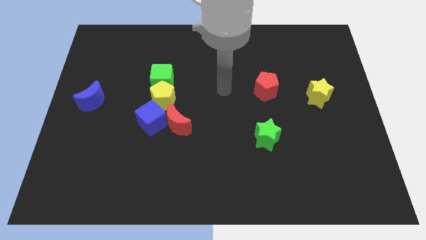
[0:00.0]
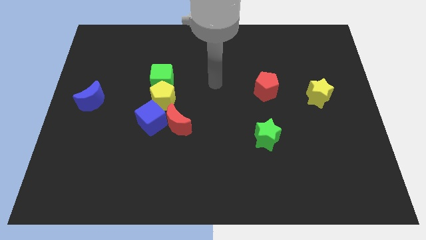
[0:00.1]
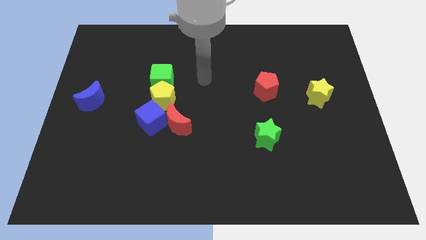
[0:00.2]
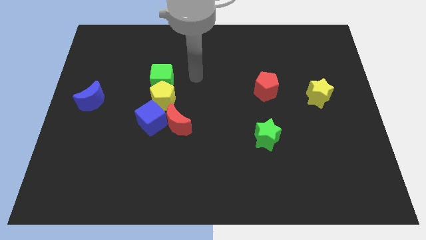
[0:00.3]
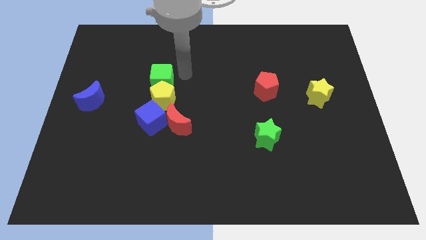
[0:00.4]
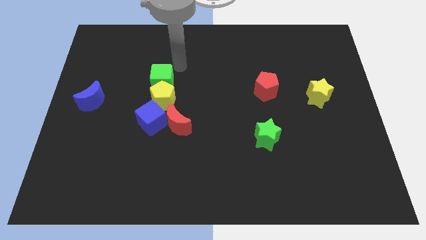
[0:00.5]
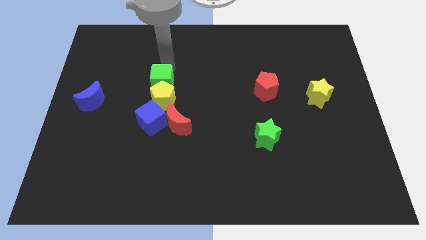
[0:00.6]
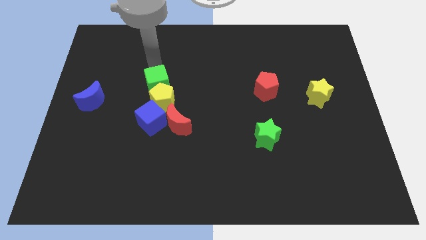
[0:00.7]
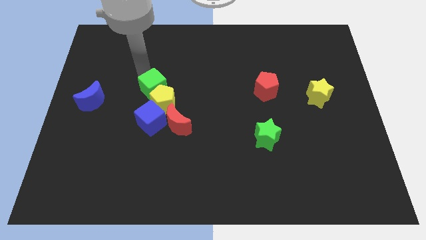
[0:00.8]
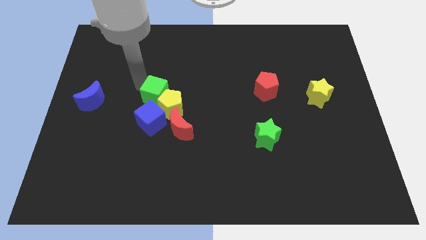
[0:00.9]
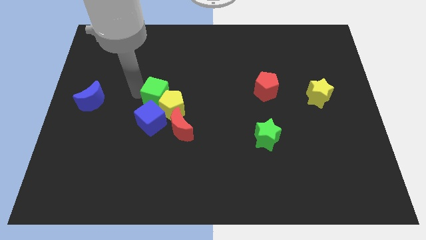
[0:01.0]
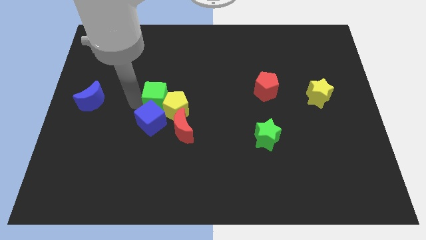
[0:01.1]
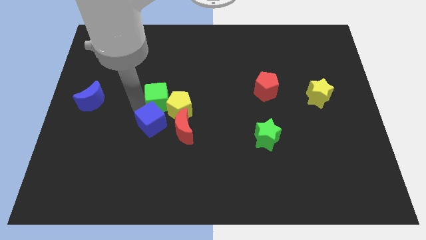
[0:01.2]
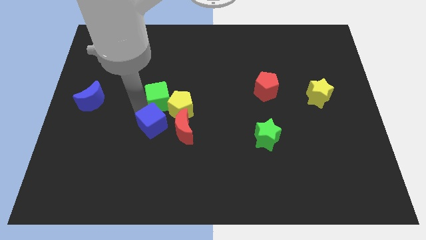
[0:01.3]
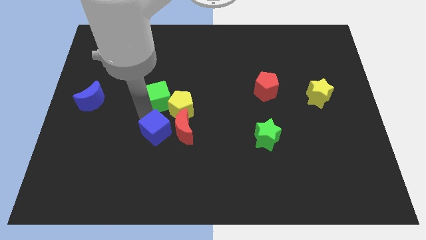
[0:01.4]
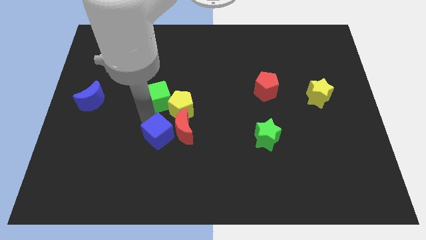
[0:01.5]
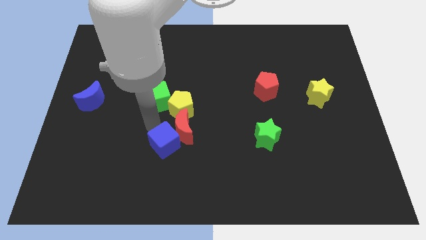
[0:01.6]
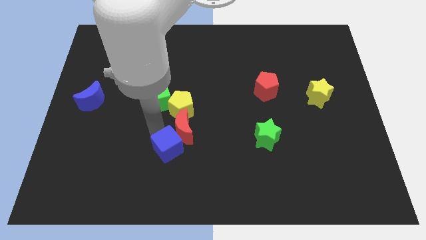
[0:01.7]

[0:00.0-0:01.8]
slightly slide the blue cube down and to the right diagonally

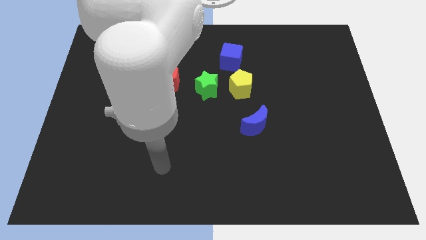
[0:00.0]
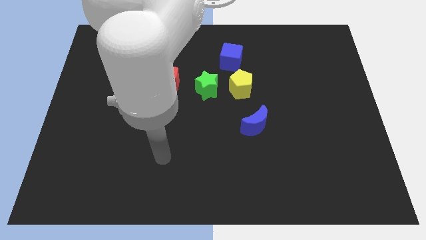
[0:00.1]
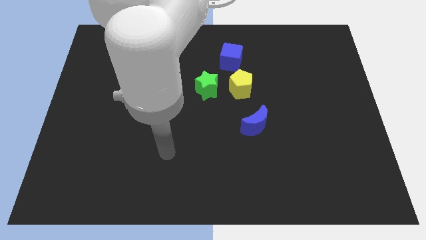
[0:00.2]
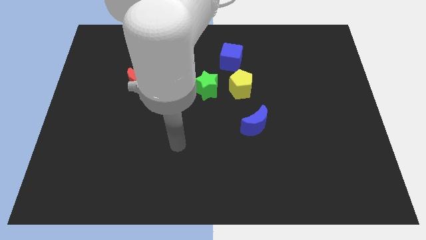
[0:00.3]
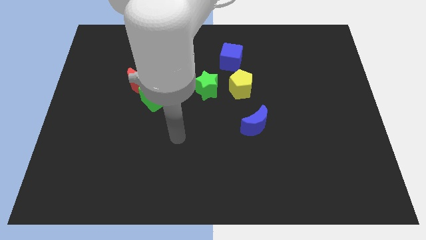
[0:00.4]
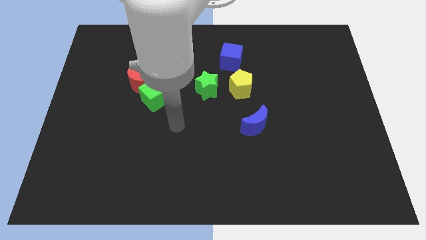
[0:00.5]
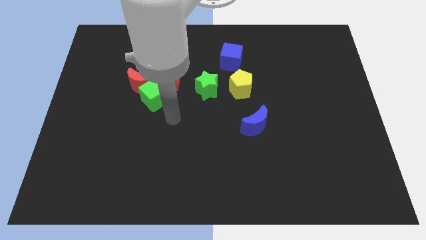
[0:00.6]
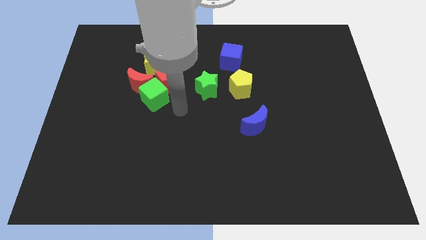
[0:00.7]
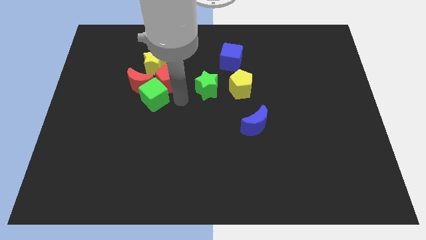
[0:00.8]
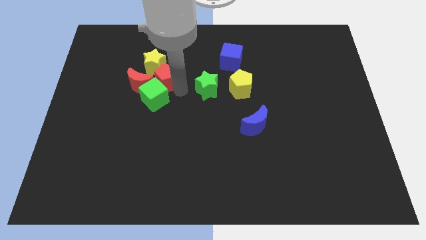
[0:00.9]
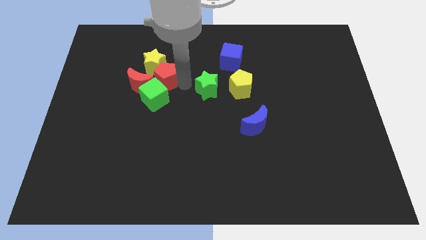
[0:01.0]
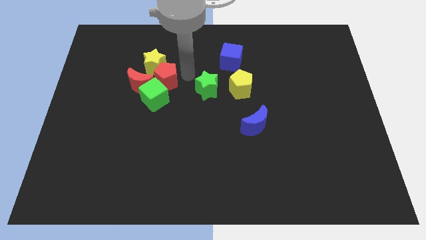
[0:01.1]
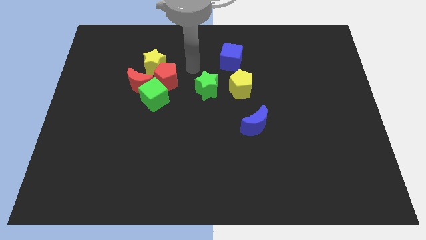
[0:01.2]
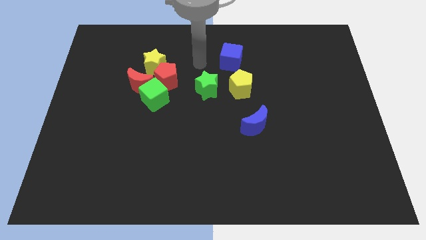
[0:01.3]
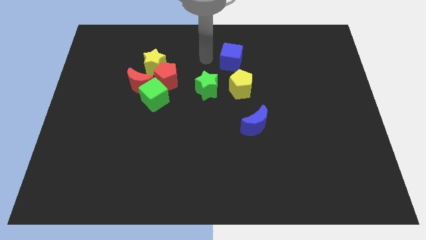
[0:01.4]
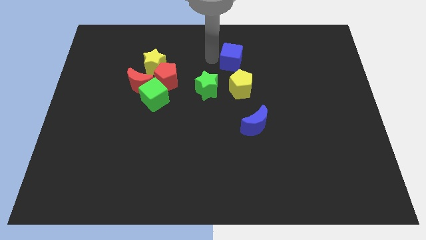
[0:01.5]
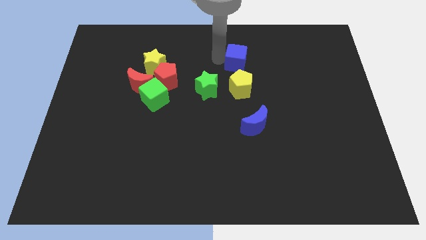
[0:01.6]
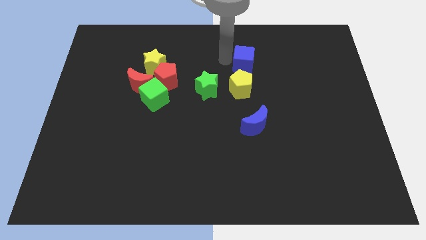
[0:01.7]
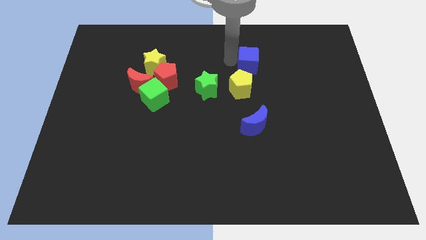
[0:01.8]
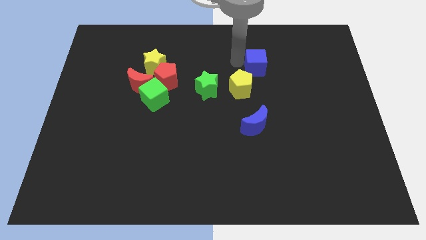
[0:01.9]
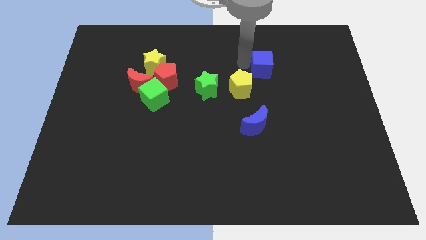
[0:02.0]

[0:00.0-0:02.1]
move the blue cube somewhat right

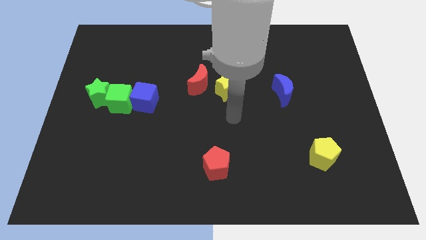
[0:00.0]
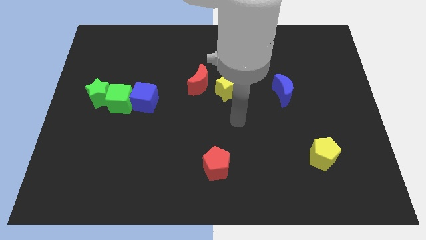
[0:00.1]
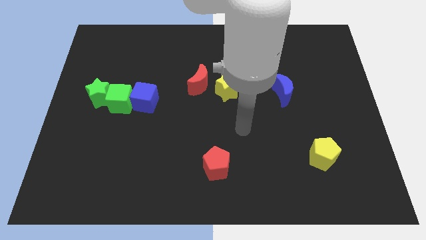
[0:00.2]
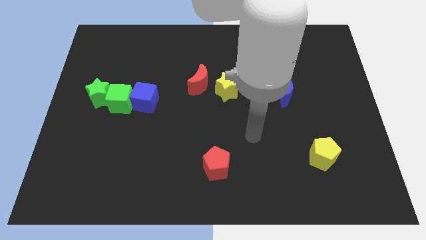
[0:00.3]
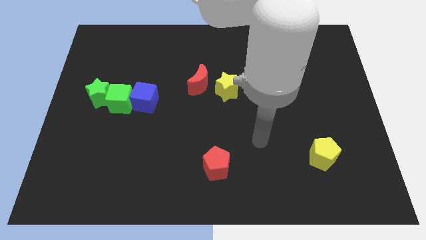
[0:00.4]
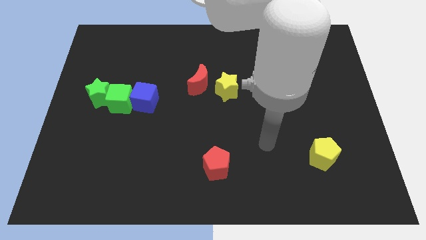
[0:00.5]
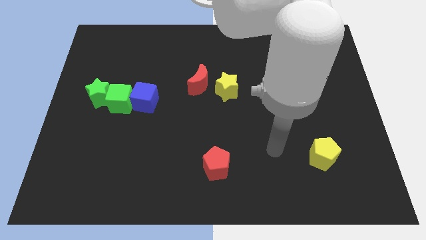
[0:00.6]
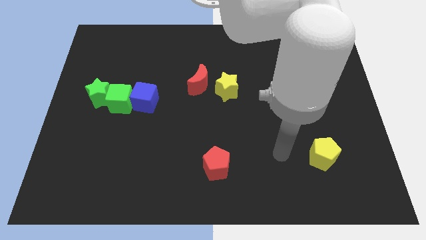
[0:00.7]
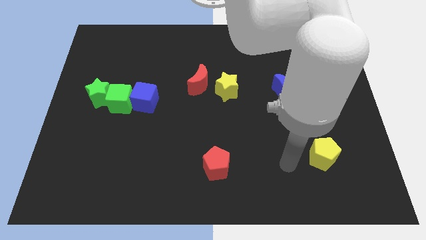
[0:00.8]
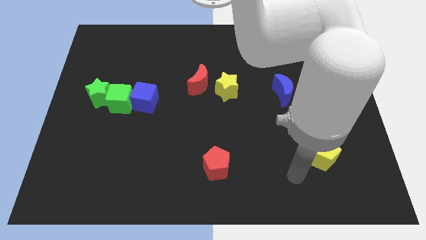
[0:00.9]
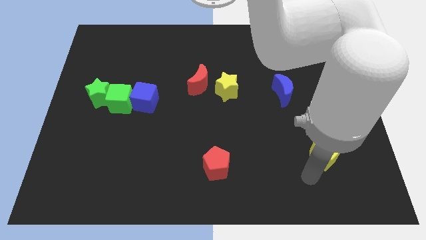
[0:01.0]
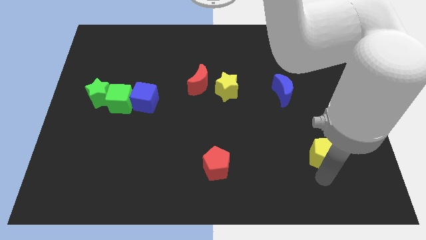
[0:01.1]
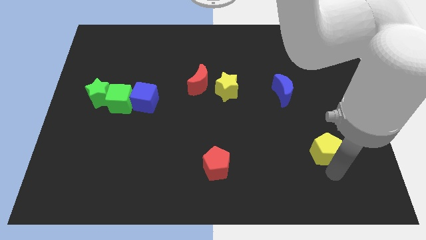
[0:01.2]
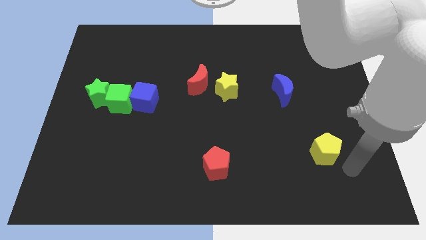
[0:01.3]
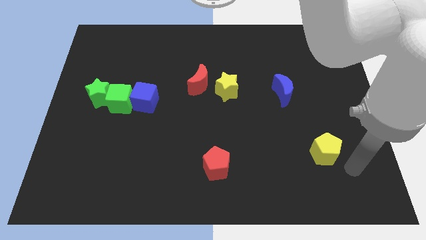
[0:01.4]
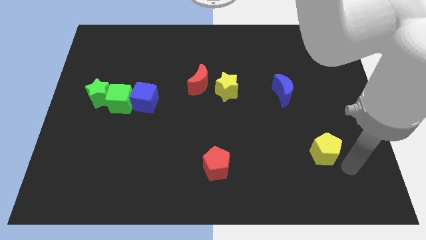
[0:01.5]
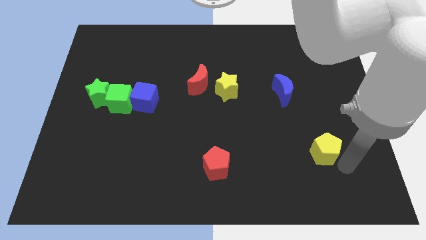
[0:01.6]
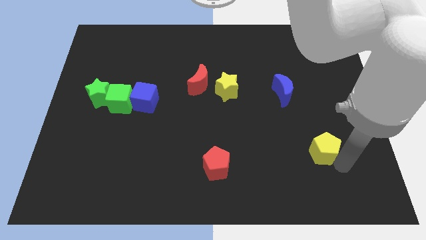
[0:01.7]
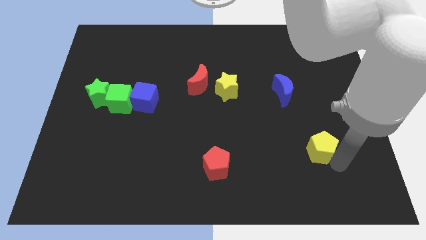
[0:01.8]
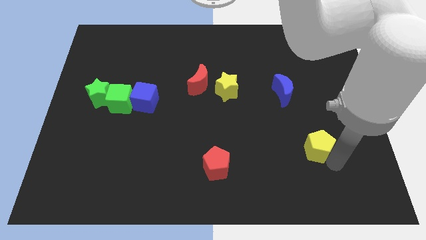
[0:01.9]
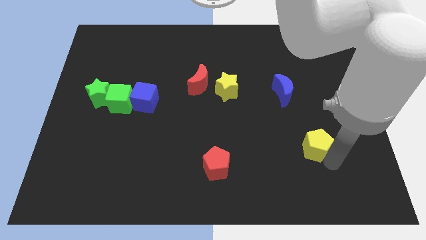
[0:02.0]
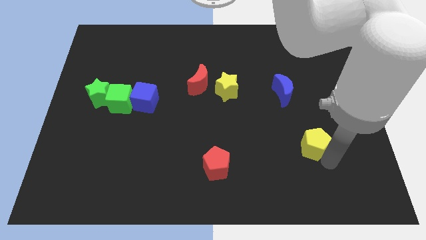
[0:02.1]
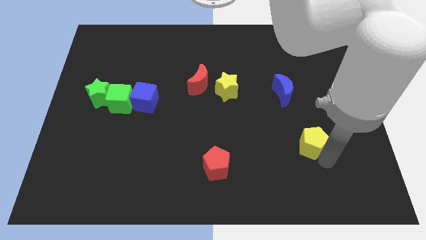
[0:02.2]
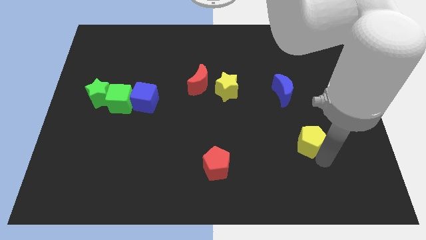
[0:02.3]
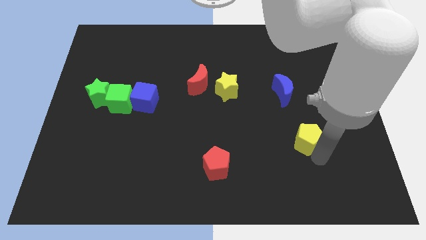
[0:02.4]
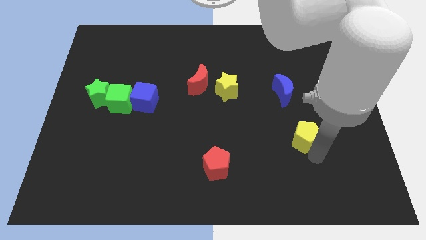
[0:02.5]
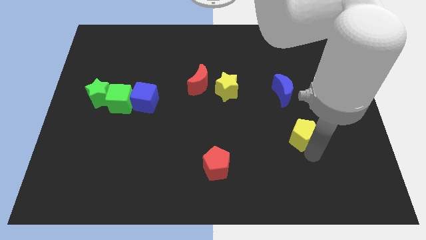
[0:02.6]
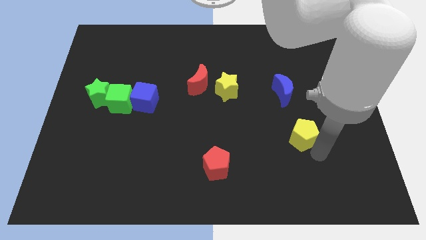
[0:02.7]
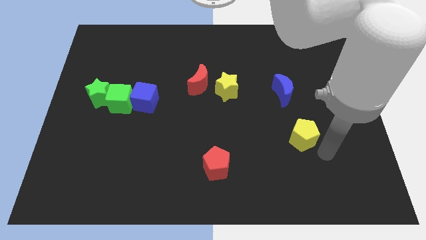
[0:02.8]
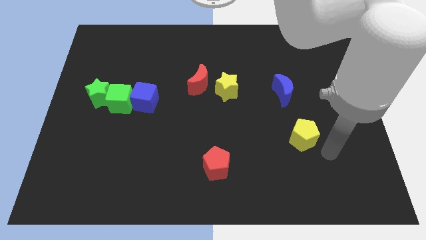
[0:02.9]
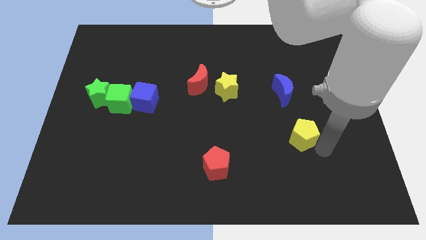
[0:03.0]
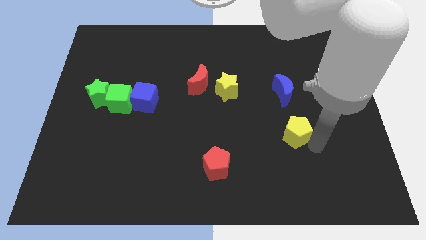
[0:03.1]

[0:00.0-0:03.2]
slightly move the yellow pentagon diagonally up and to the left

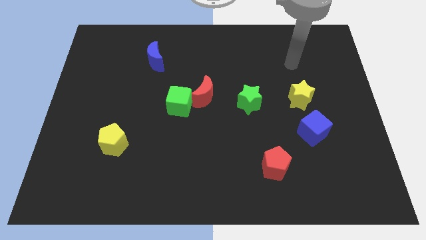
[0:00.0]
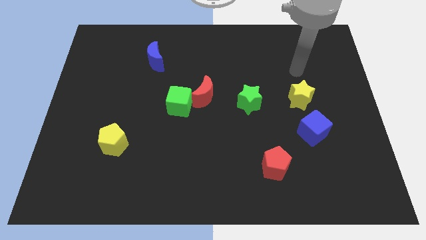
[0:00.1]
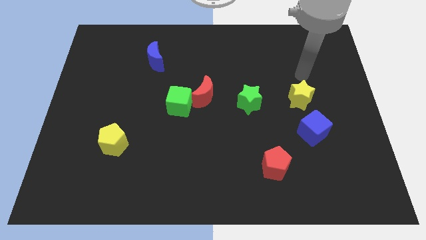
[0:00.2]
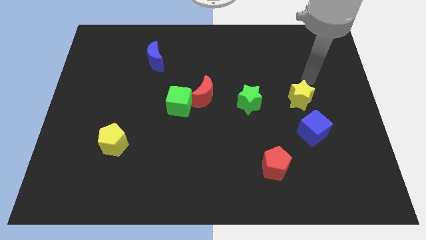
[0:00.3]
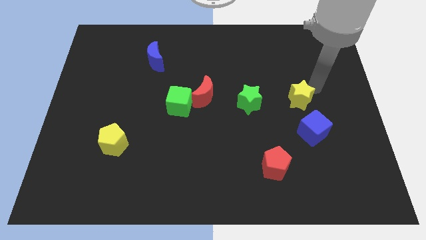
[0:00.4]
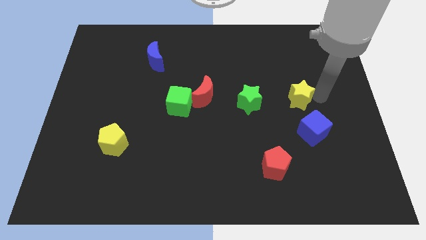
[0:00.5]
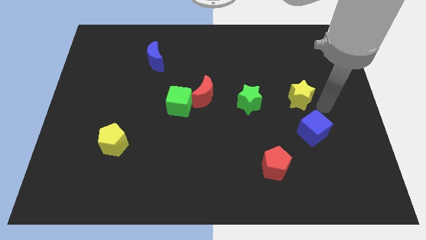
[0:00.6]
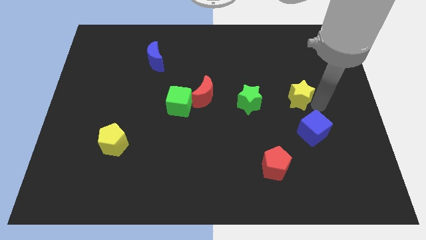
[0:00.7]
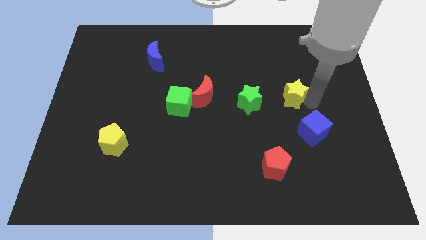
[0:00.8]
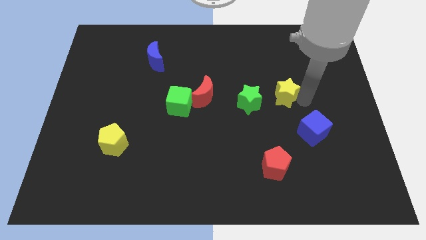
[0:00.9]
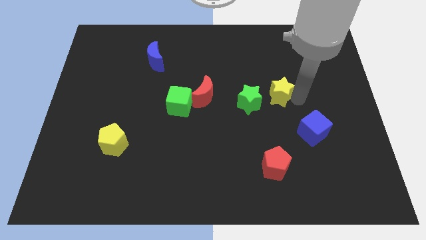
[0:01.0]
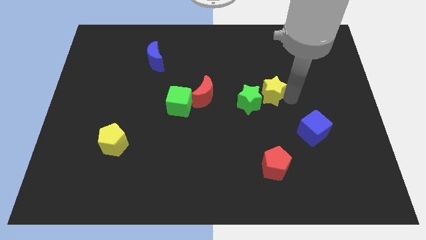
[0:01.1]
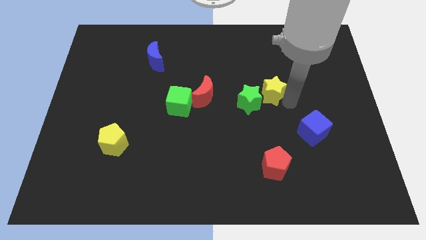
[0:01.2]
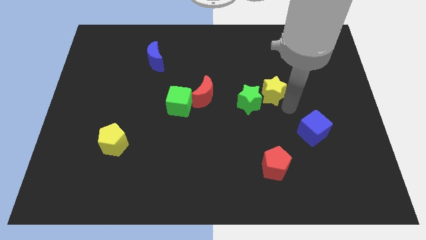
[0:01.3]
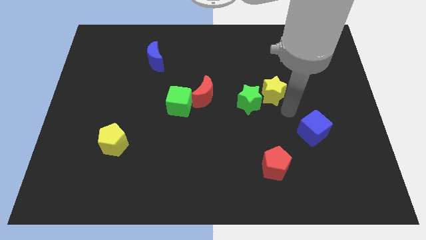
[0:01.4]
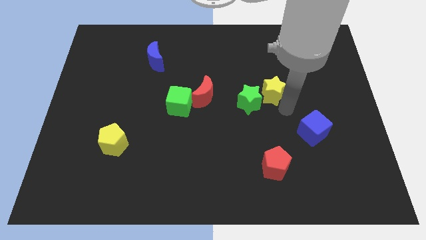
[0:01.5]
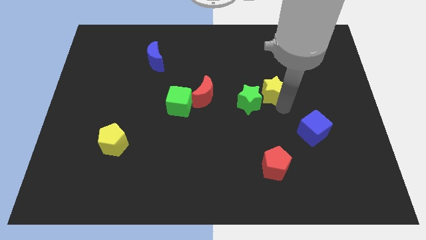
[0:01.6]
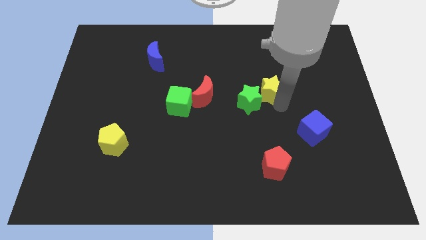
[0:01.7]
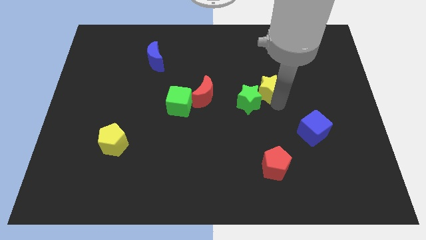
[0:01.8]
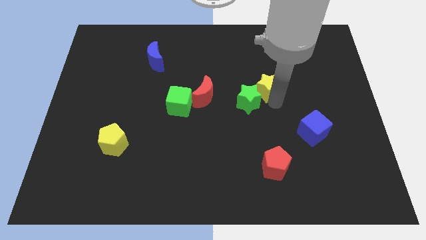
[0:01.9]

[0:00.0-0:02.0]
slide the yellow star upwards and then left a bit
